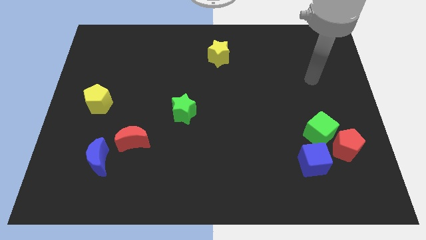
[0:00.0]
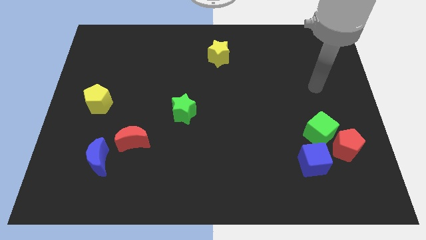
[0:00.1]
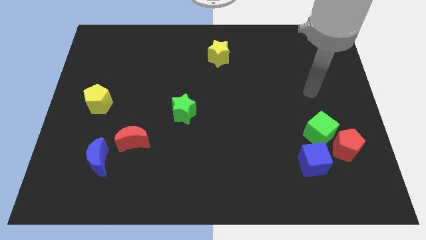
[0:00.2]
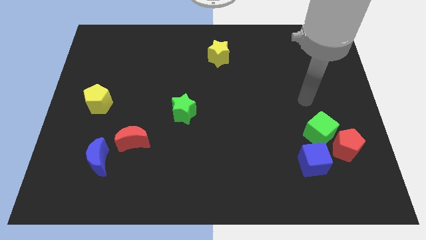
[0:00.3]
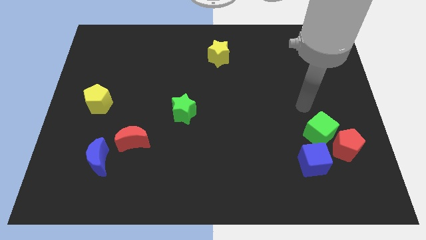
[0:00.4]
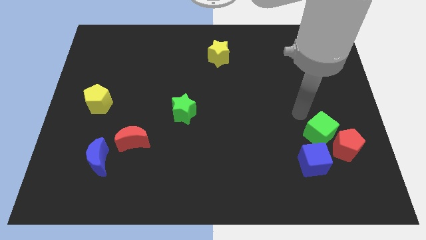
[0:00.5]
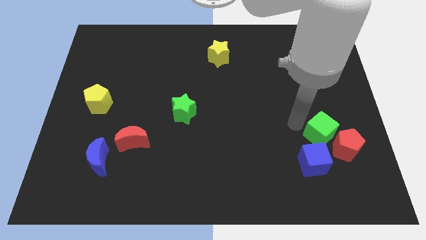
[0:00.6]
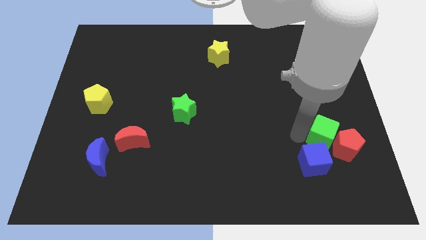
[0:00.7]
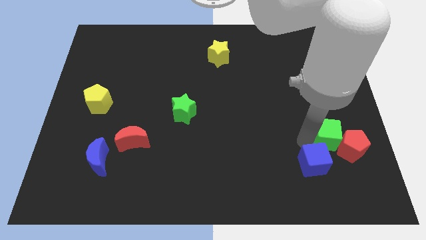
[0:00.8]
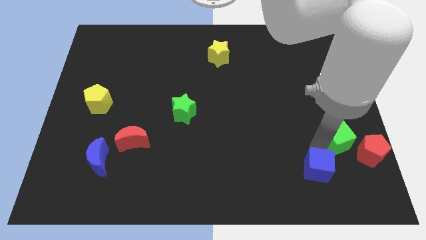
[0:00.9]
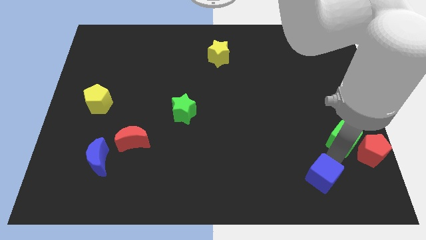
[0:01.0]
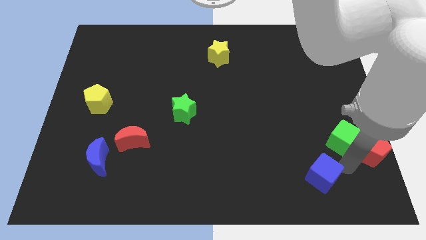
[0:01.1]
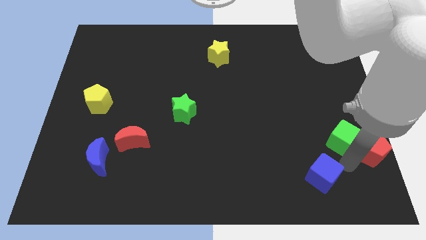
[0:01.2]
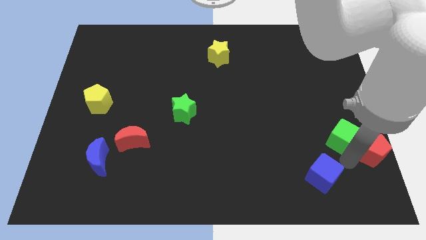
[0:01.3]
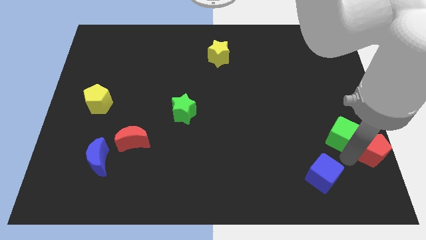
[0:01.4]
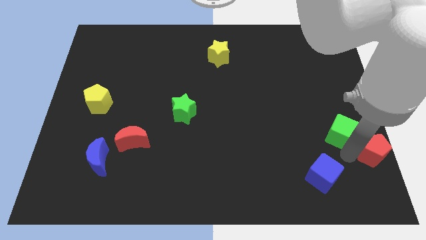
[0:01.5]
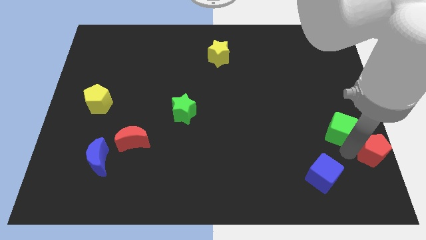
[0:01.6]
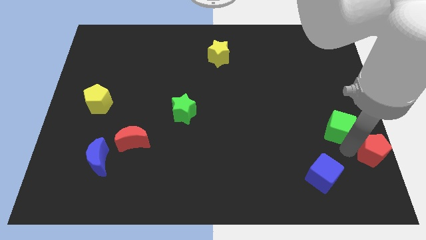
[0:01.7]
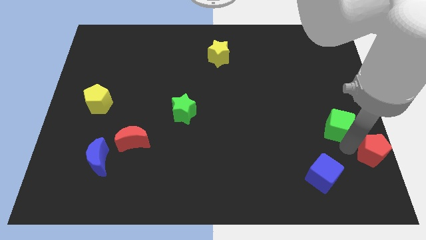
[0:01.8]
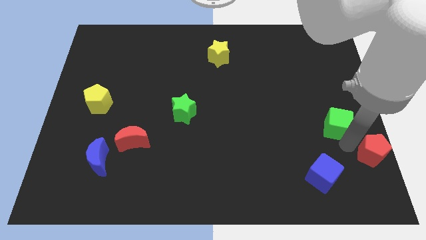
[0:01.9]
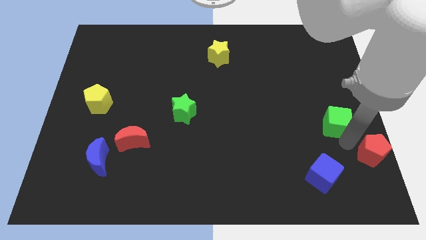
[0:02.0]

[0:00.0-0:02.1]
separate the green cube from the red pentagon and blue cube

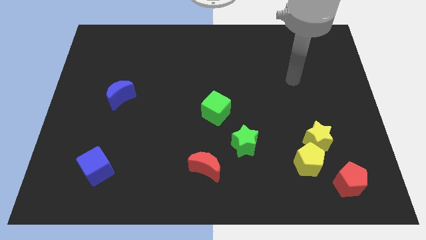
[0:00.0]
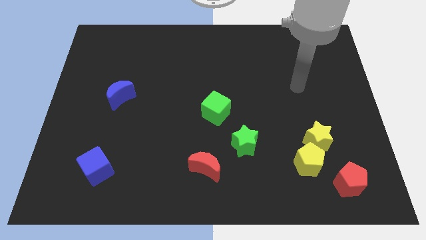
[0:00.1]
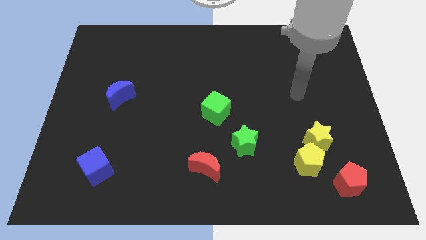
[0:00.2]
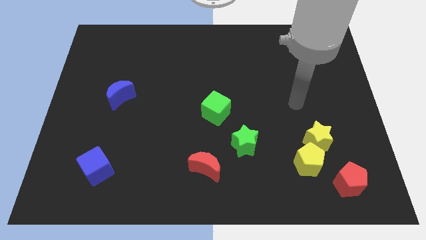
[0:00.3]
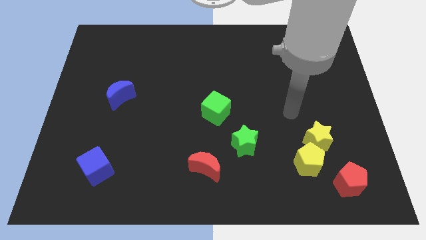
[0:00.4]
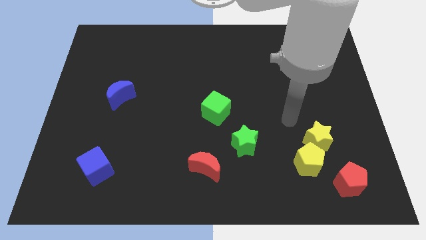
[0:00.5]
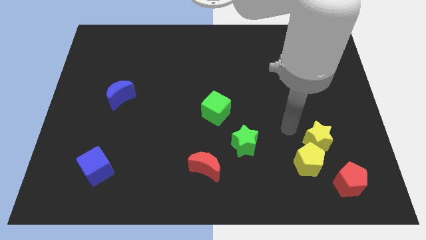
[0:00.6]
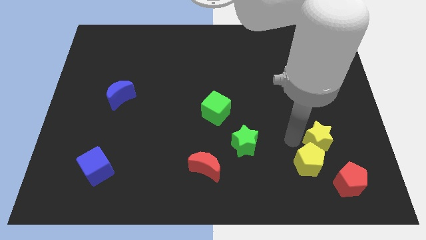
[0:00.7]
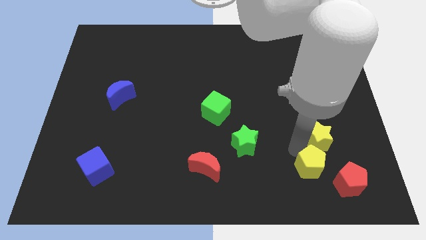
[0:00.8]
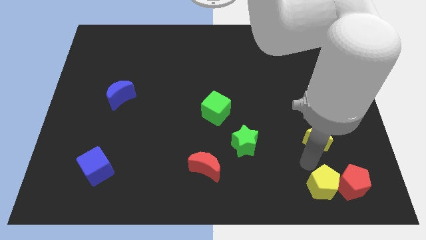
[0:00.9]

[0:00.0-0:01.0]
move the yellow star away from the yellow pentagon

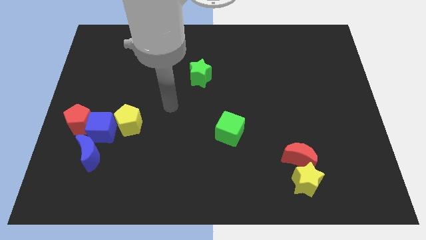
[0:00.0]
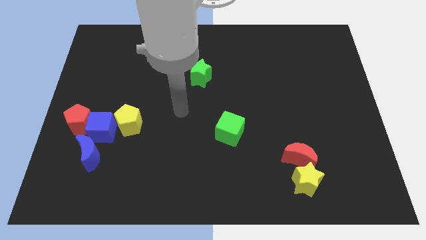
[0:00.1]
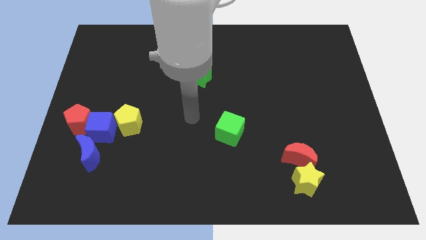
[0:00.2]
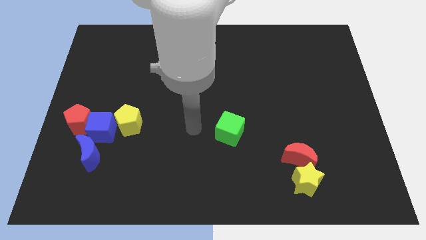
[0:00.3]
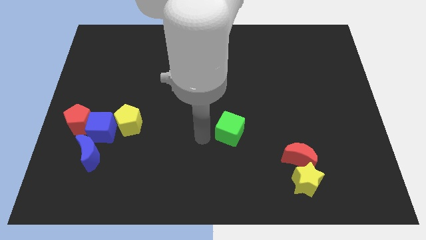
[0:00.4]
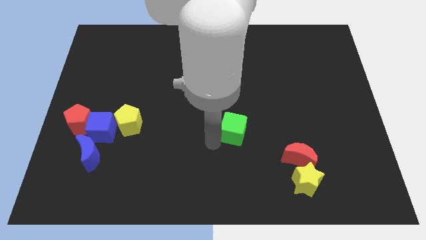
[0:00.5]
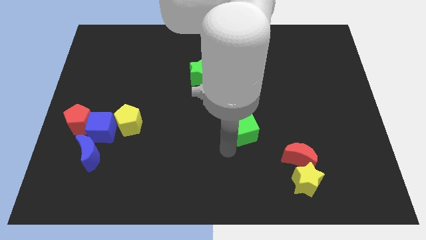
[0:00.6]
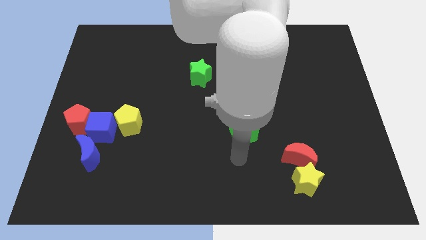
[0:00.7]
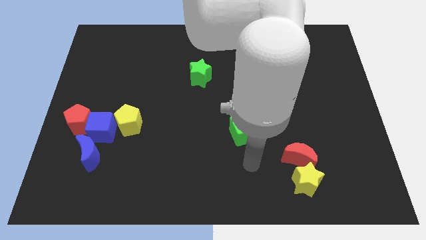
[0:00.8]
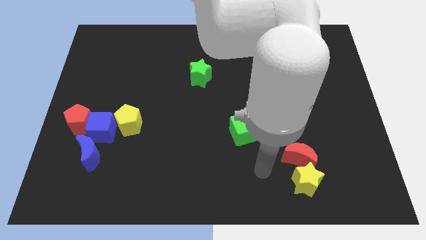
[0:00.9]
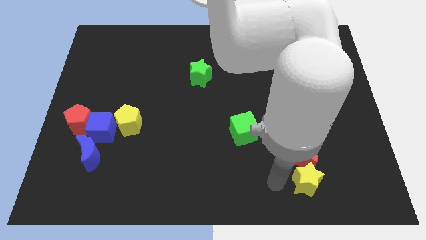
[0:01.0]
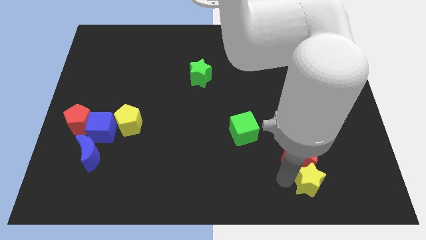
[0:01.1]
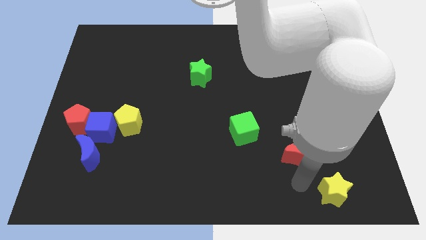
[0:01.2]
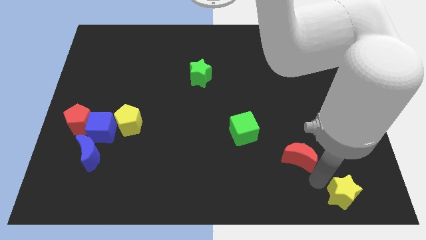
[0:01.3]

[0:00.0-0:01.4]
separate the red moon from the yellow star

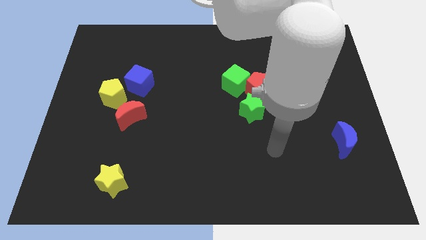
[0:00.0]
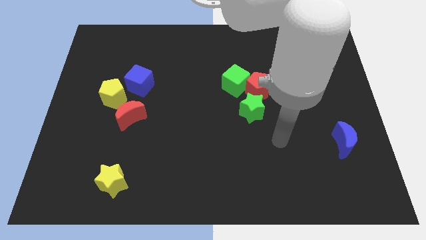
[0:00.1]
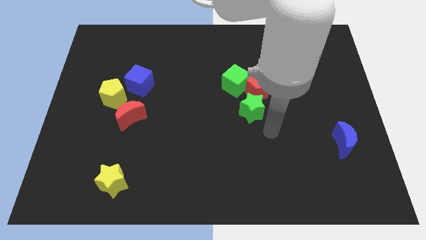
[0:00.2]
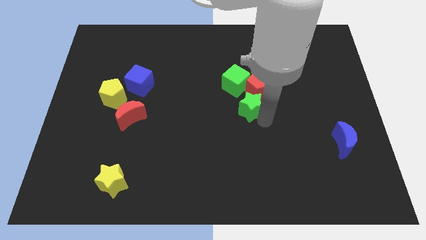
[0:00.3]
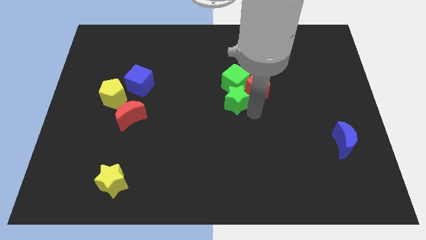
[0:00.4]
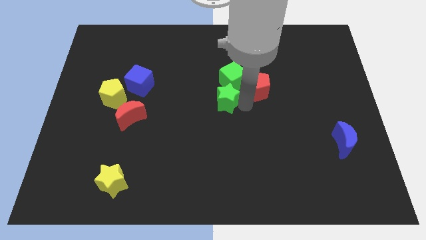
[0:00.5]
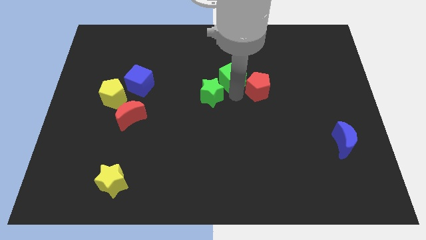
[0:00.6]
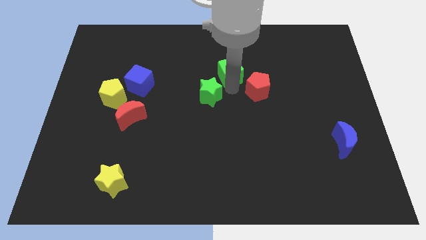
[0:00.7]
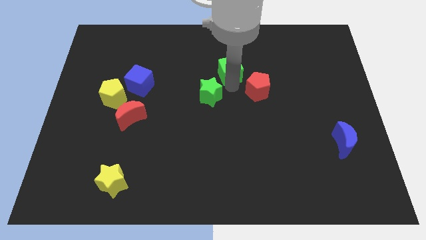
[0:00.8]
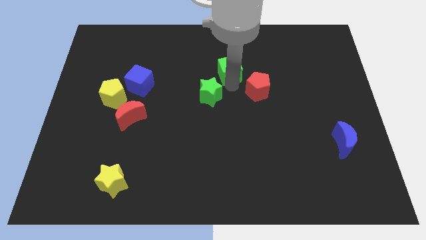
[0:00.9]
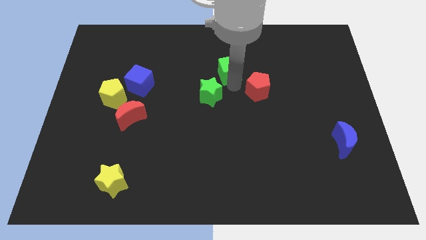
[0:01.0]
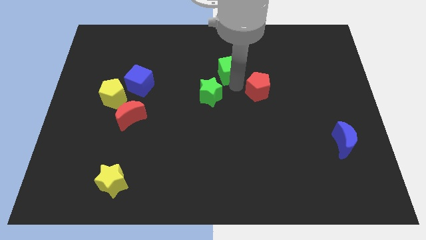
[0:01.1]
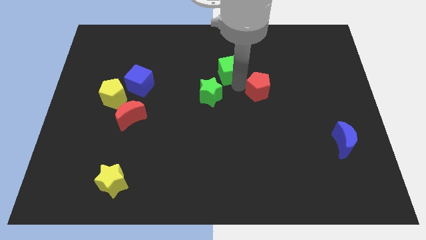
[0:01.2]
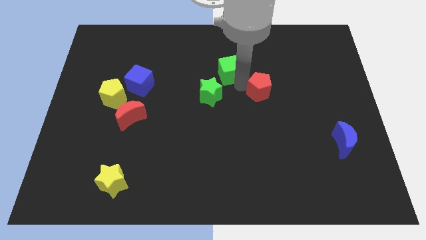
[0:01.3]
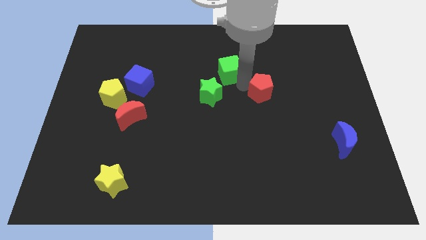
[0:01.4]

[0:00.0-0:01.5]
separate the red pentagon from the green cube and green star

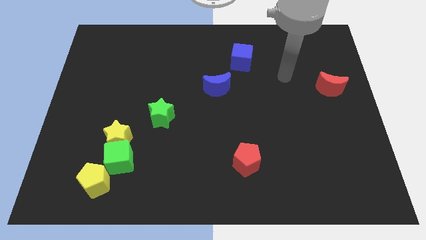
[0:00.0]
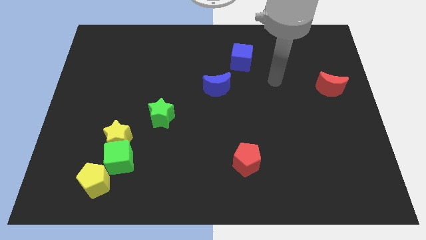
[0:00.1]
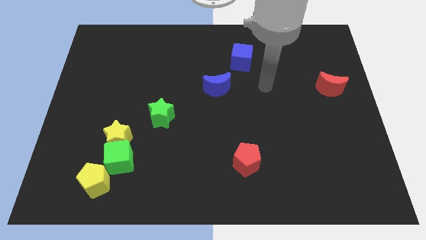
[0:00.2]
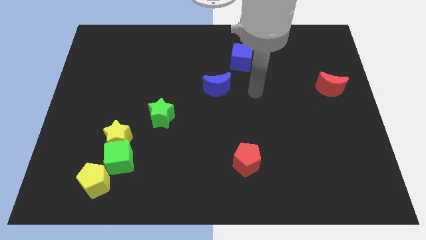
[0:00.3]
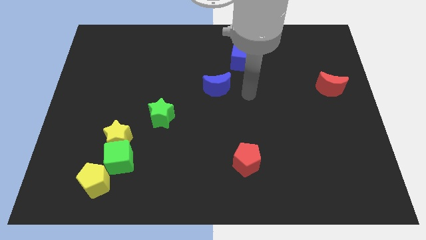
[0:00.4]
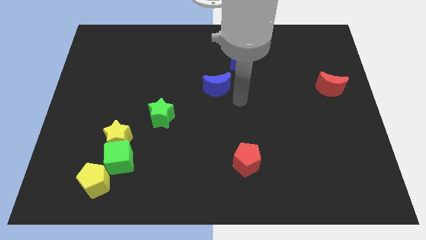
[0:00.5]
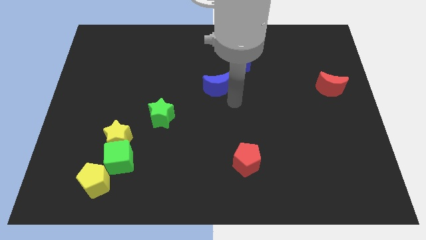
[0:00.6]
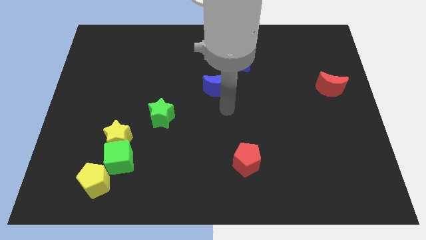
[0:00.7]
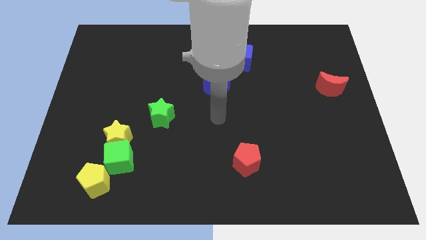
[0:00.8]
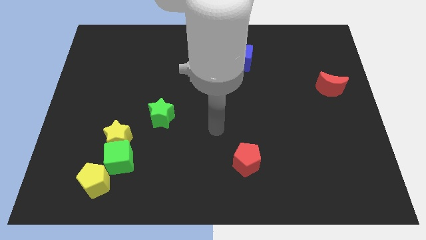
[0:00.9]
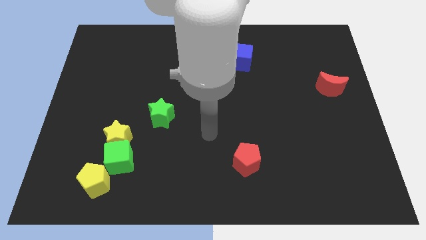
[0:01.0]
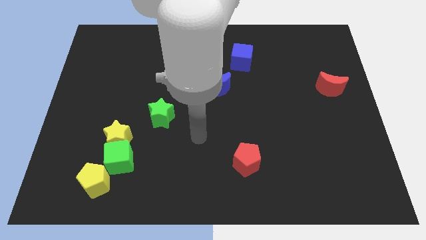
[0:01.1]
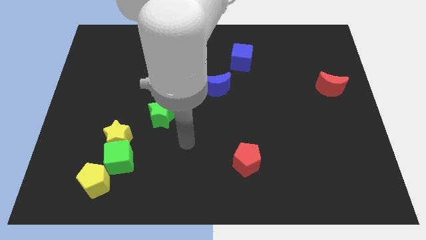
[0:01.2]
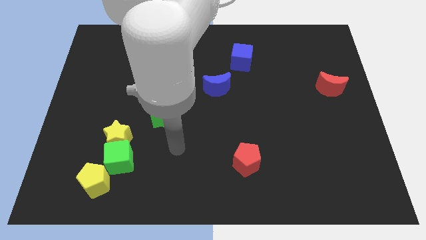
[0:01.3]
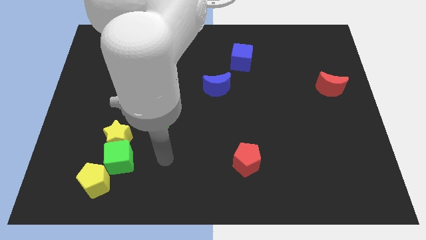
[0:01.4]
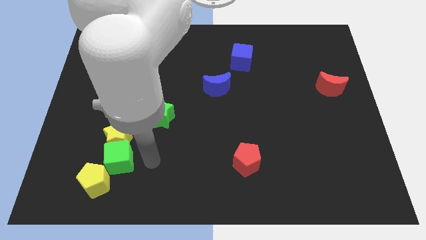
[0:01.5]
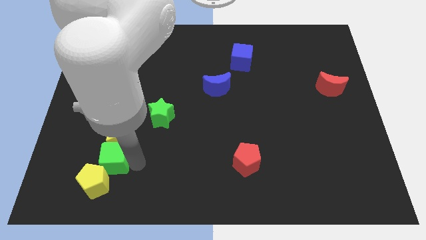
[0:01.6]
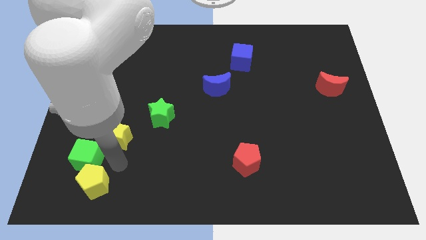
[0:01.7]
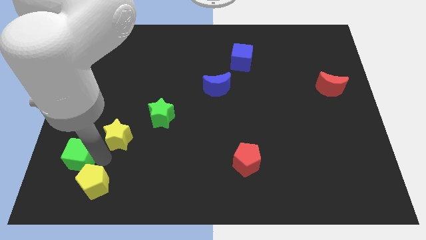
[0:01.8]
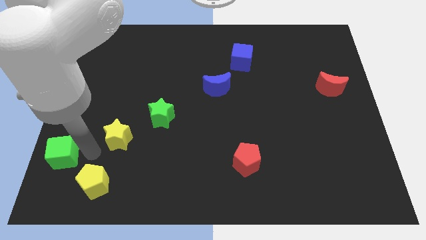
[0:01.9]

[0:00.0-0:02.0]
separate the yellow star from the green cube

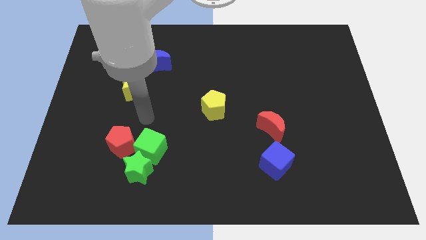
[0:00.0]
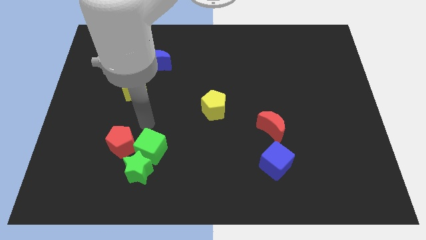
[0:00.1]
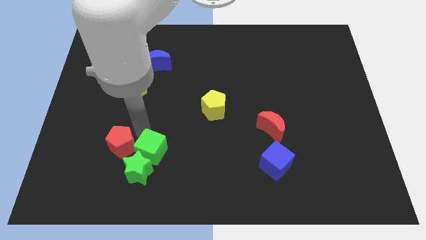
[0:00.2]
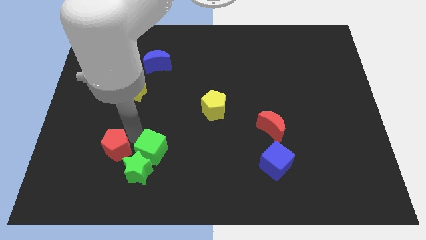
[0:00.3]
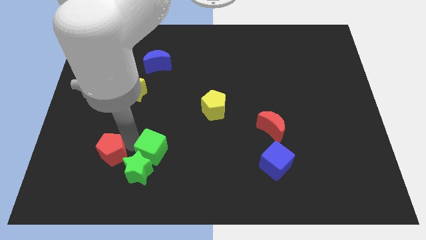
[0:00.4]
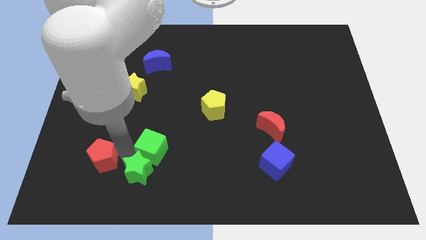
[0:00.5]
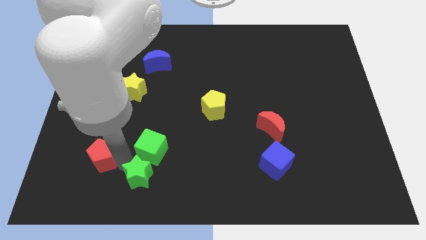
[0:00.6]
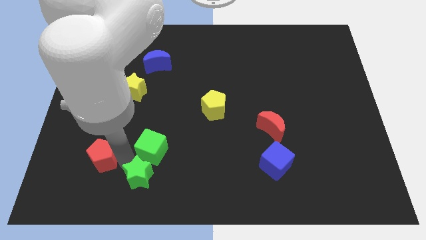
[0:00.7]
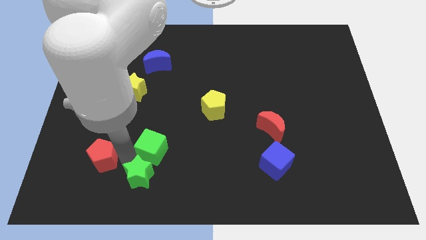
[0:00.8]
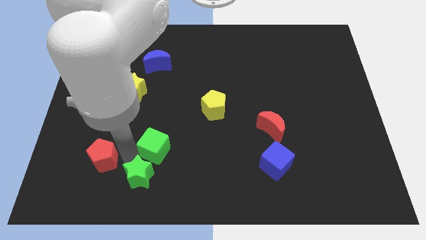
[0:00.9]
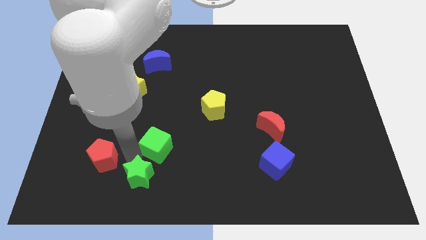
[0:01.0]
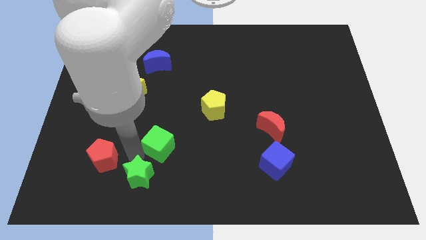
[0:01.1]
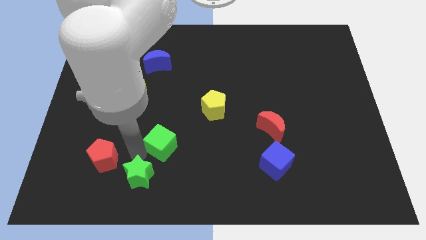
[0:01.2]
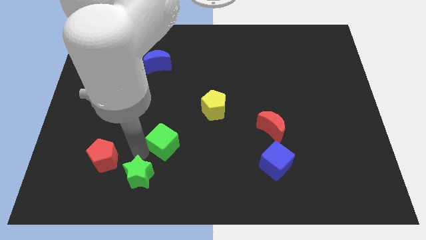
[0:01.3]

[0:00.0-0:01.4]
move the green cube away from the green star and red pentagon
